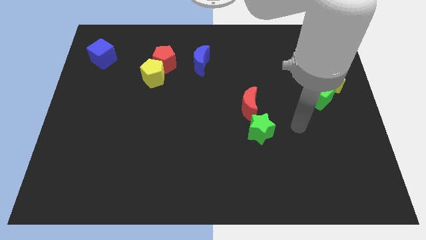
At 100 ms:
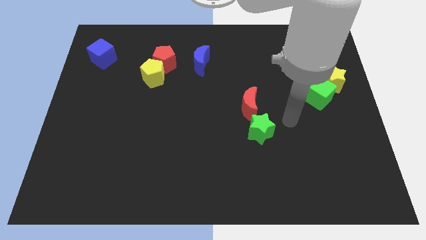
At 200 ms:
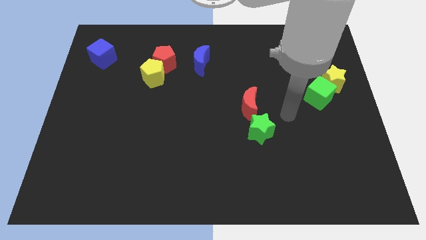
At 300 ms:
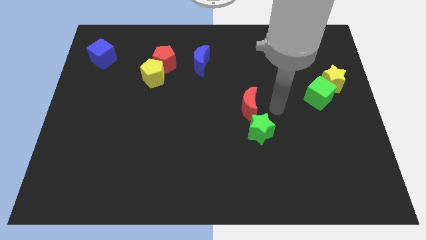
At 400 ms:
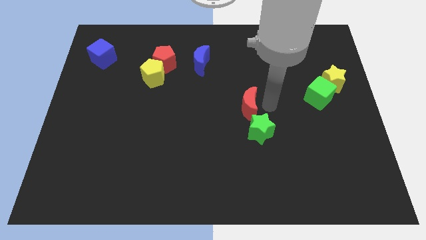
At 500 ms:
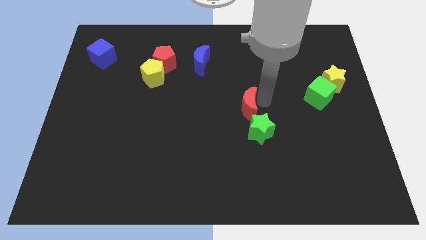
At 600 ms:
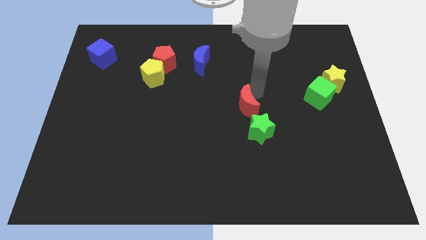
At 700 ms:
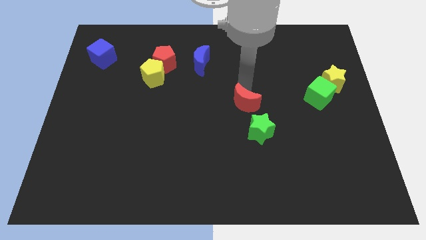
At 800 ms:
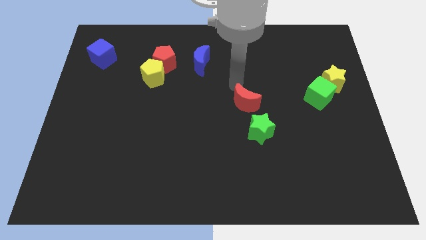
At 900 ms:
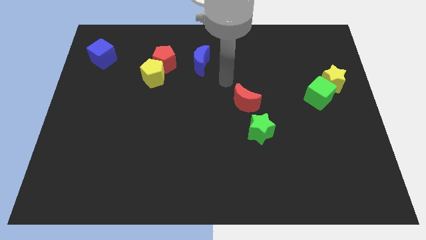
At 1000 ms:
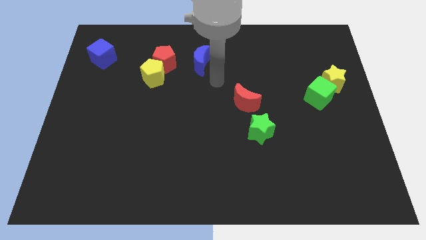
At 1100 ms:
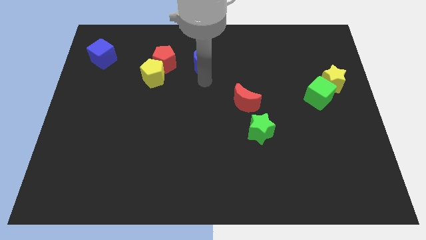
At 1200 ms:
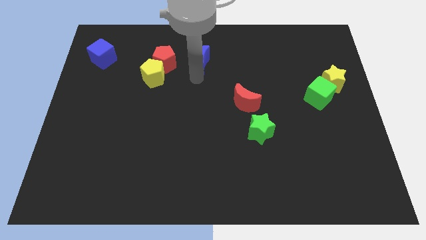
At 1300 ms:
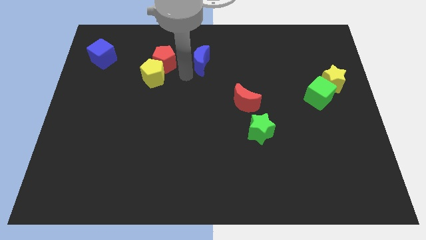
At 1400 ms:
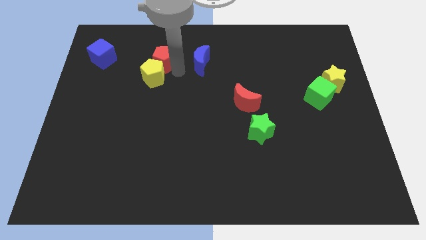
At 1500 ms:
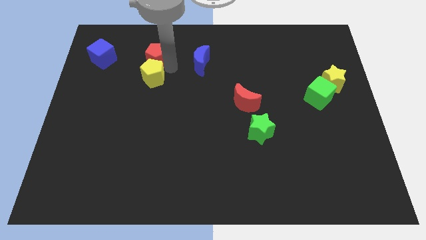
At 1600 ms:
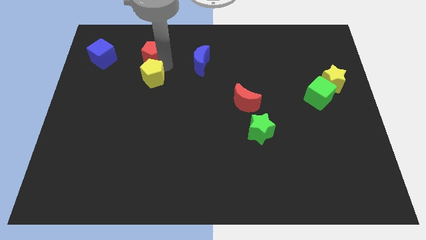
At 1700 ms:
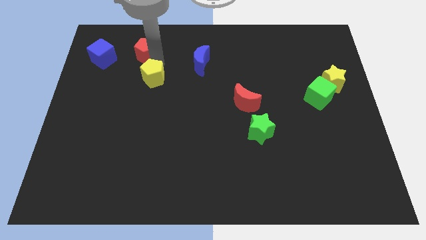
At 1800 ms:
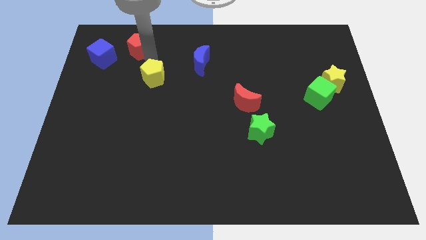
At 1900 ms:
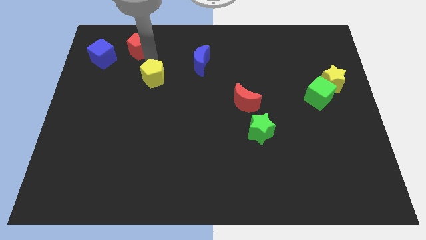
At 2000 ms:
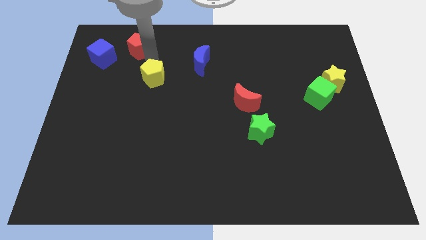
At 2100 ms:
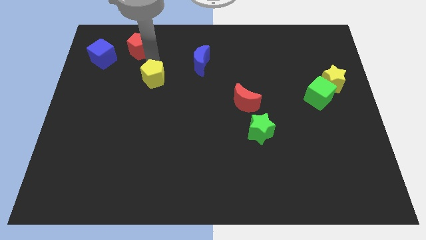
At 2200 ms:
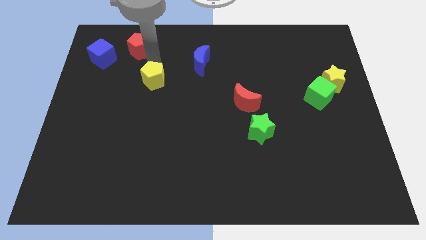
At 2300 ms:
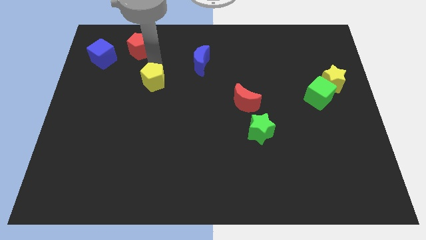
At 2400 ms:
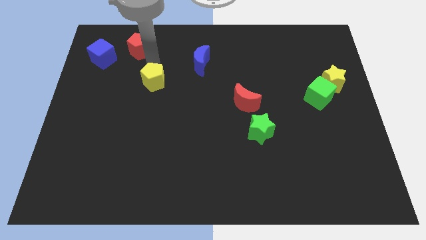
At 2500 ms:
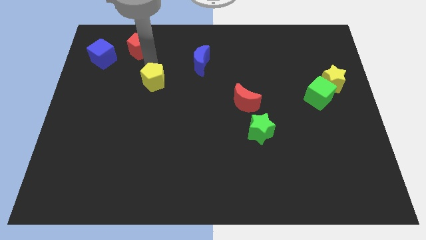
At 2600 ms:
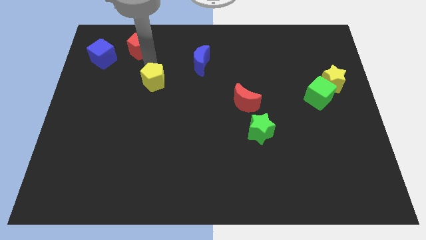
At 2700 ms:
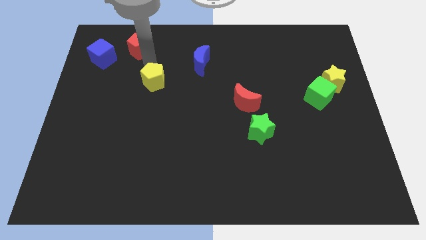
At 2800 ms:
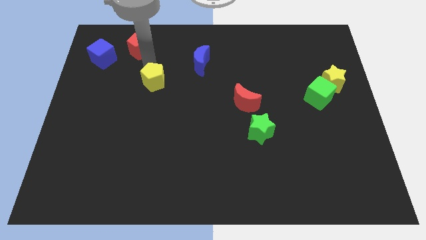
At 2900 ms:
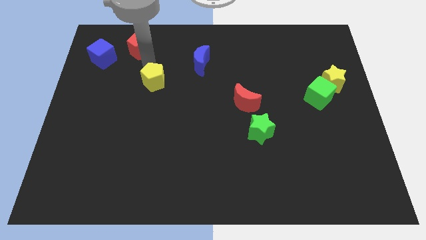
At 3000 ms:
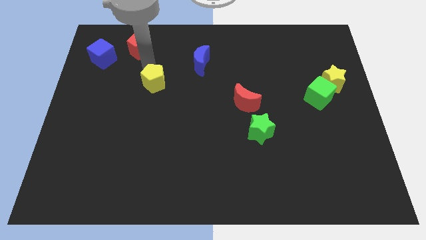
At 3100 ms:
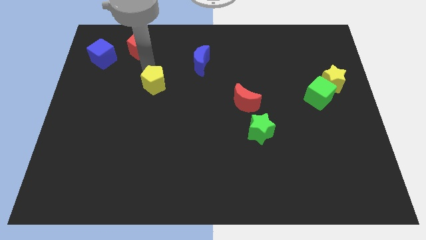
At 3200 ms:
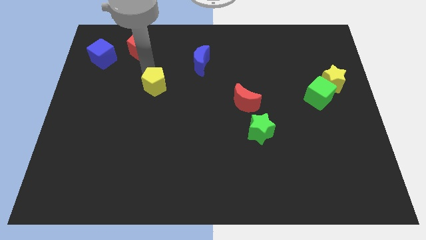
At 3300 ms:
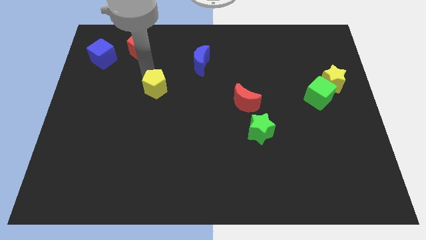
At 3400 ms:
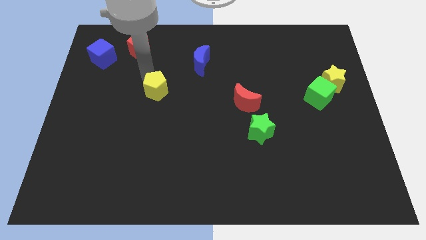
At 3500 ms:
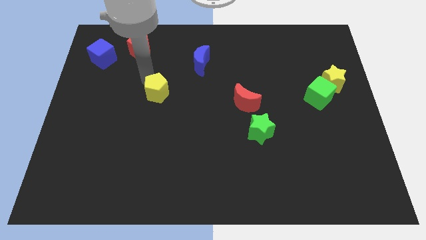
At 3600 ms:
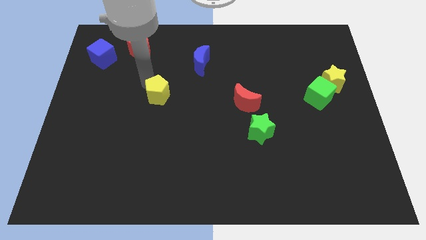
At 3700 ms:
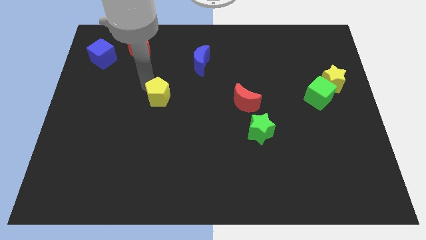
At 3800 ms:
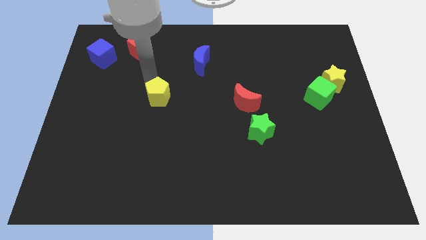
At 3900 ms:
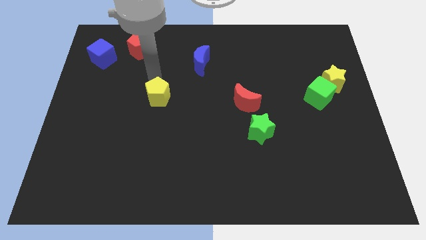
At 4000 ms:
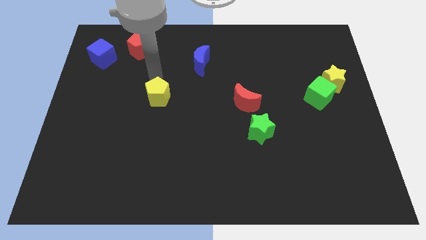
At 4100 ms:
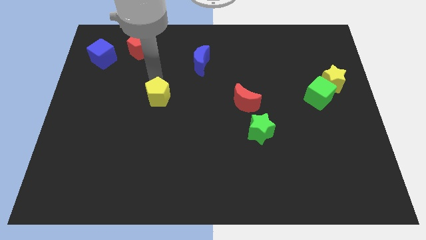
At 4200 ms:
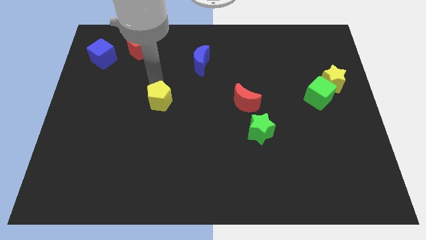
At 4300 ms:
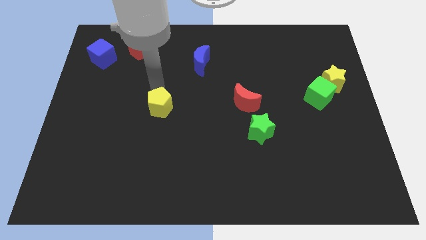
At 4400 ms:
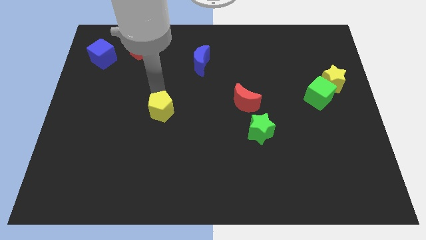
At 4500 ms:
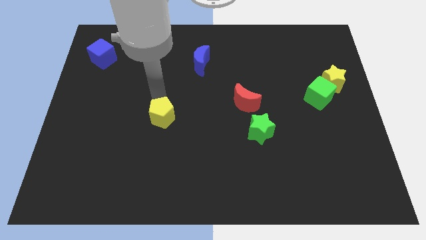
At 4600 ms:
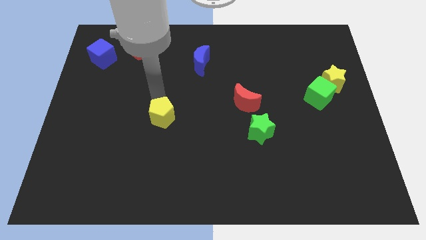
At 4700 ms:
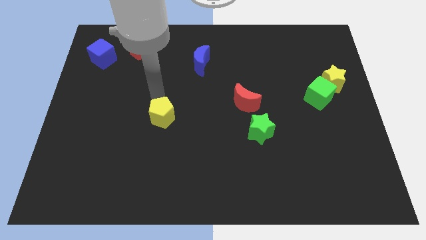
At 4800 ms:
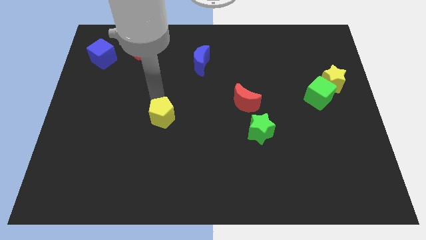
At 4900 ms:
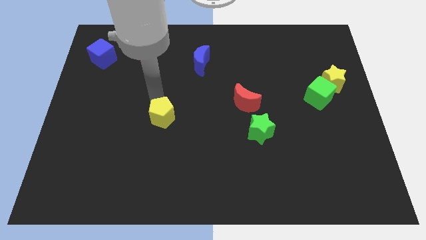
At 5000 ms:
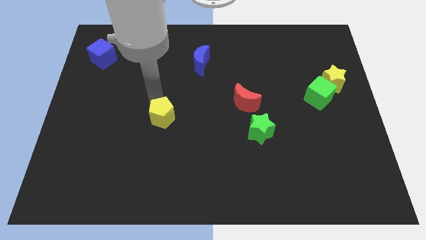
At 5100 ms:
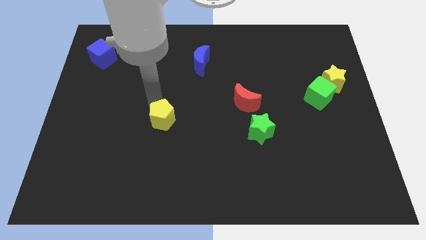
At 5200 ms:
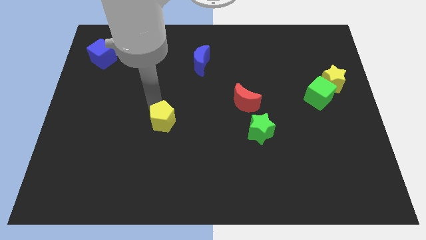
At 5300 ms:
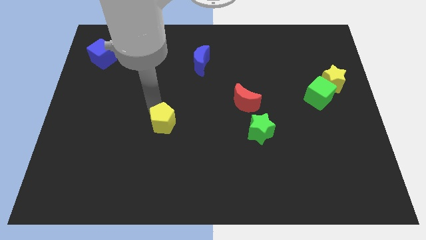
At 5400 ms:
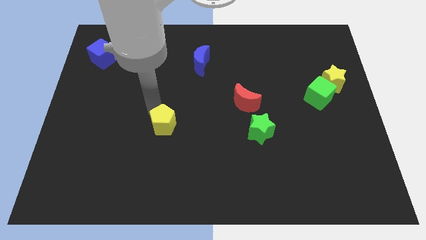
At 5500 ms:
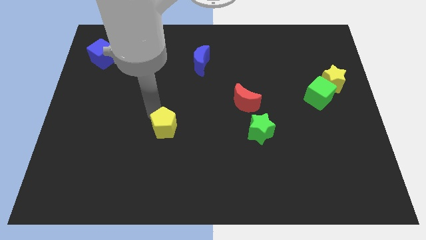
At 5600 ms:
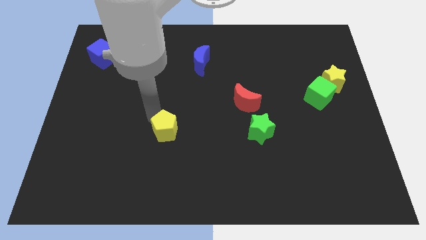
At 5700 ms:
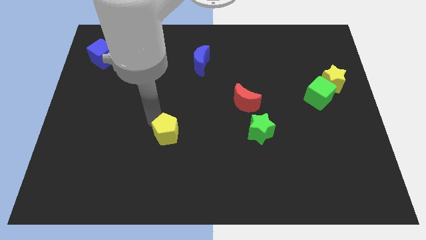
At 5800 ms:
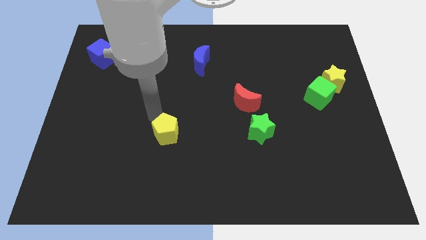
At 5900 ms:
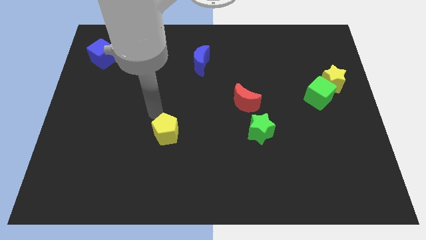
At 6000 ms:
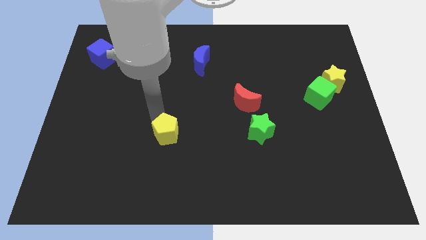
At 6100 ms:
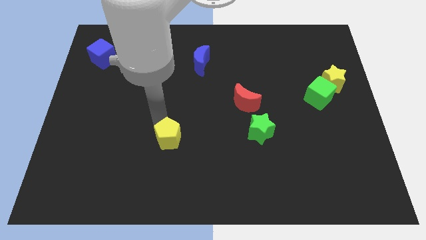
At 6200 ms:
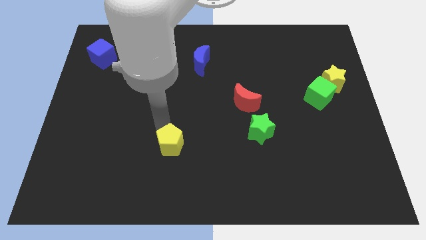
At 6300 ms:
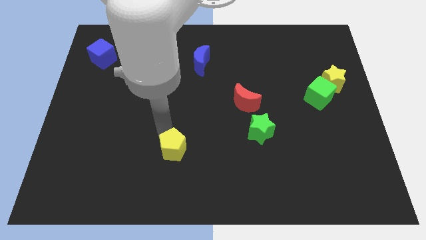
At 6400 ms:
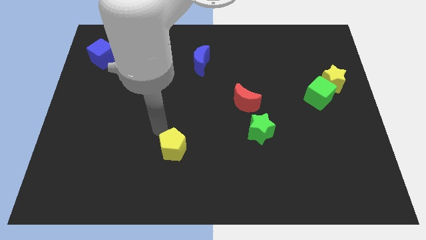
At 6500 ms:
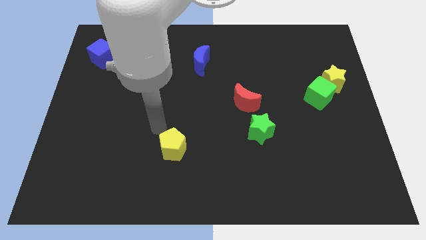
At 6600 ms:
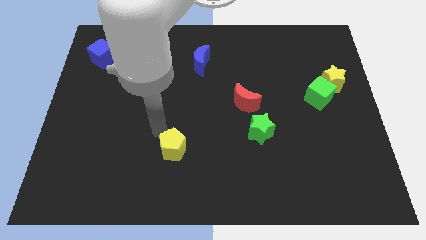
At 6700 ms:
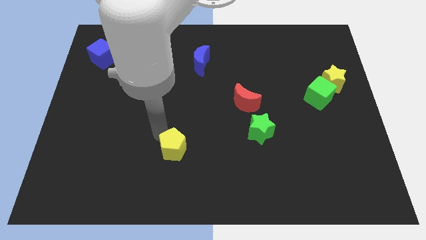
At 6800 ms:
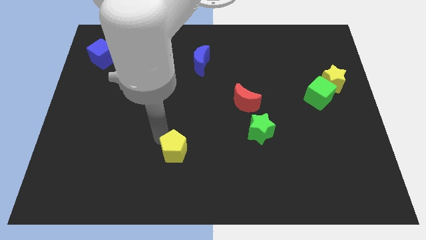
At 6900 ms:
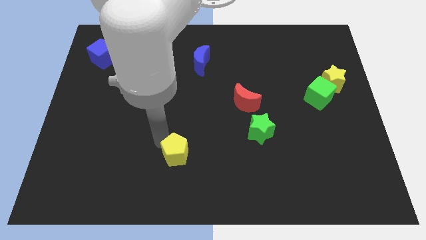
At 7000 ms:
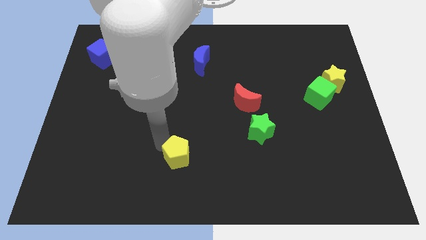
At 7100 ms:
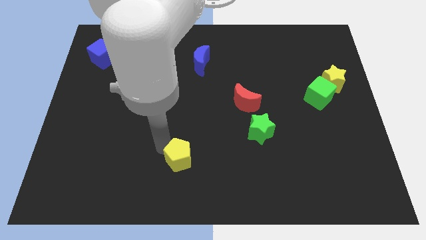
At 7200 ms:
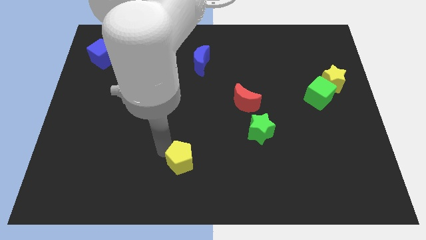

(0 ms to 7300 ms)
put the yellow pentagon to the bottom side
